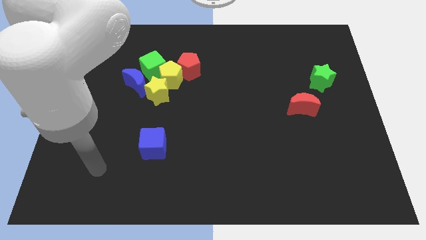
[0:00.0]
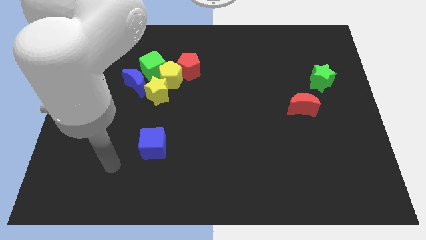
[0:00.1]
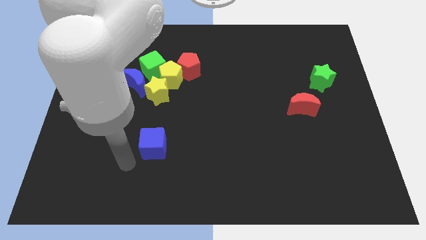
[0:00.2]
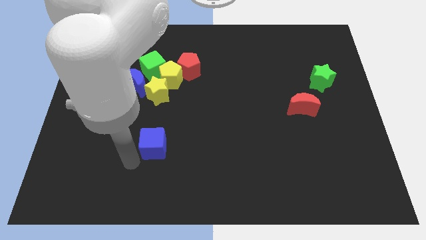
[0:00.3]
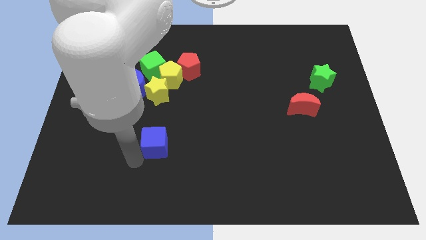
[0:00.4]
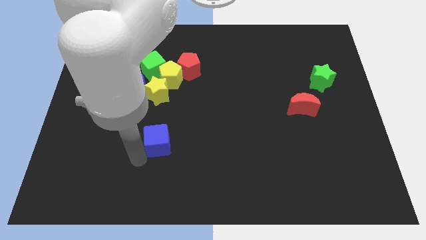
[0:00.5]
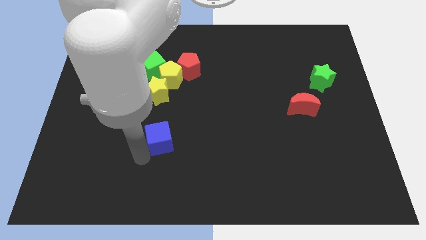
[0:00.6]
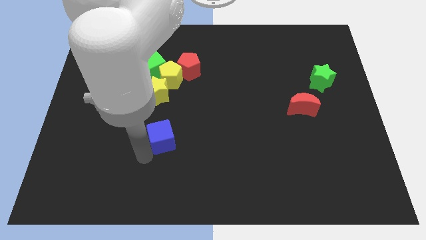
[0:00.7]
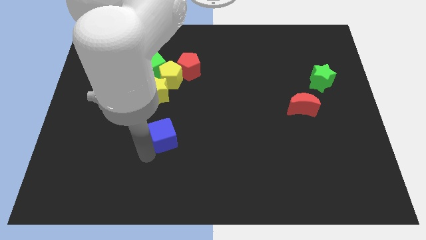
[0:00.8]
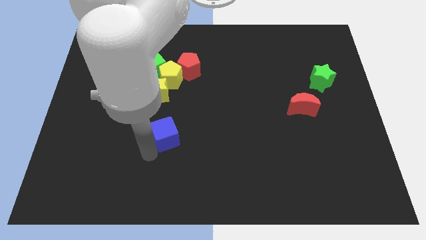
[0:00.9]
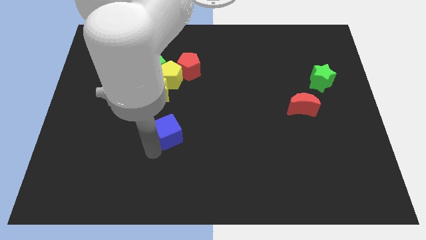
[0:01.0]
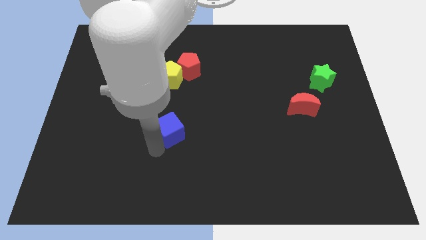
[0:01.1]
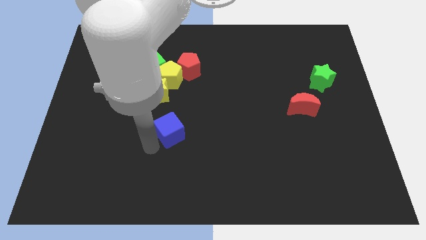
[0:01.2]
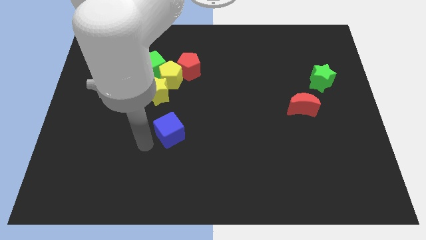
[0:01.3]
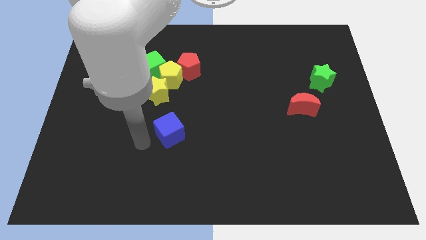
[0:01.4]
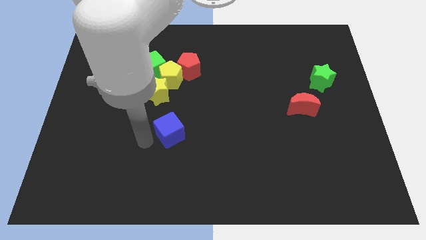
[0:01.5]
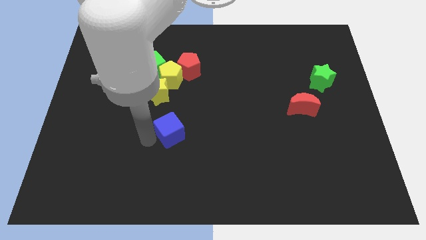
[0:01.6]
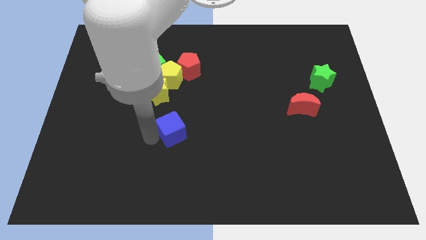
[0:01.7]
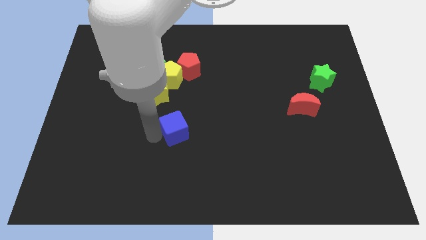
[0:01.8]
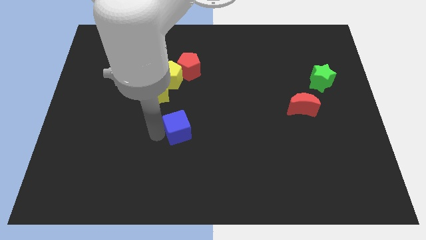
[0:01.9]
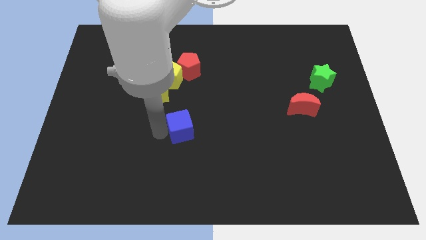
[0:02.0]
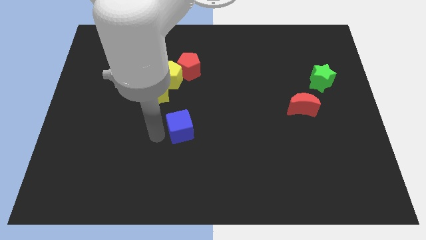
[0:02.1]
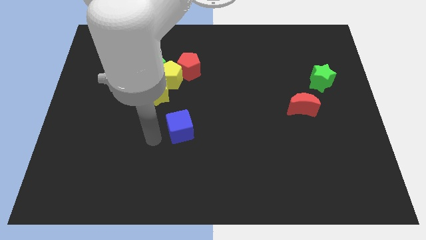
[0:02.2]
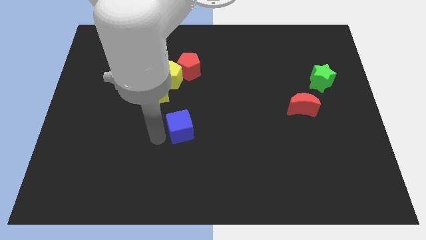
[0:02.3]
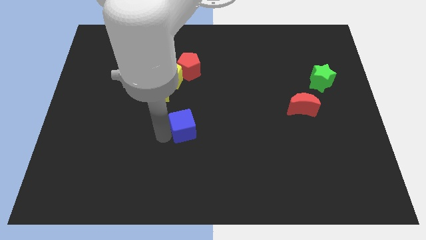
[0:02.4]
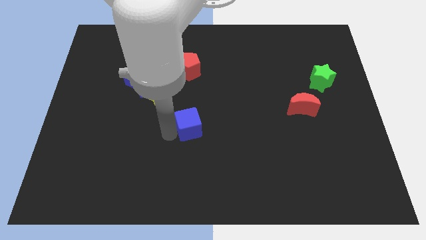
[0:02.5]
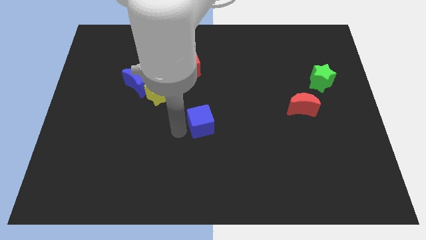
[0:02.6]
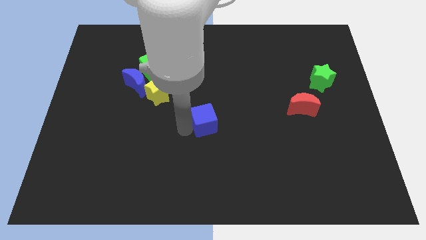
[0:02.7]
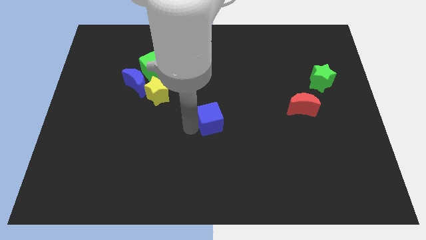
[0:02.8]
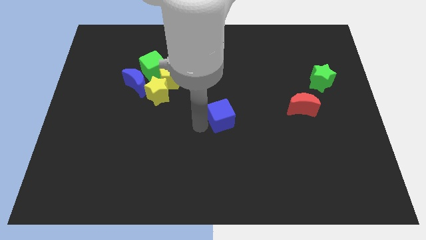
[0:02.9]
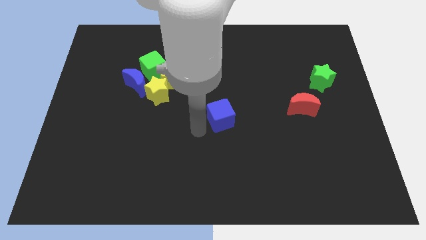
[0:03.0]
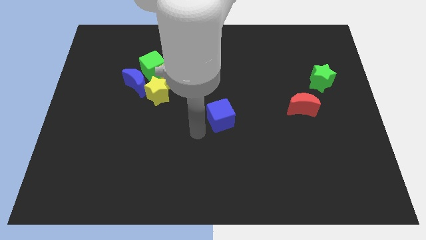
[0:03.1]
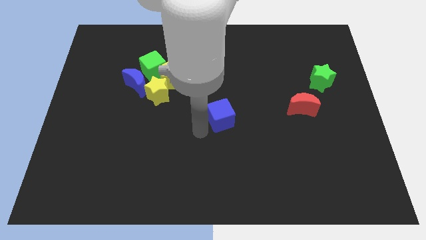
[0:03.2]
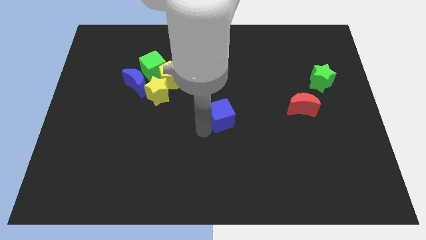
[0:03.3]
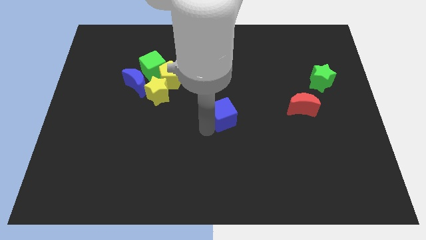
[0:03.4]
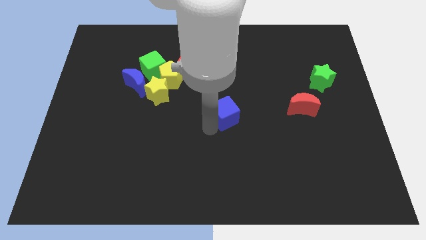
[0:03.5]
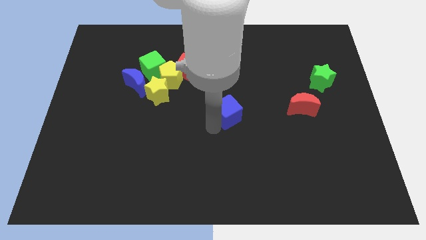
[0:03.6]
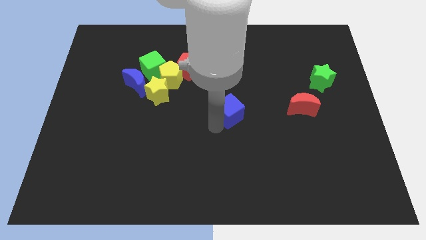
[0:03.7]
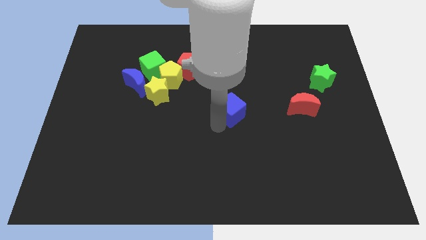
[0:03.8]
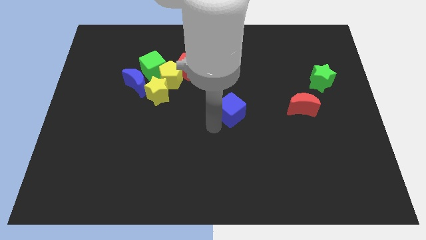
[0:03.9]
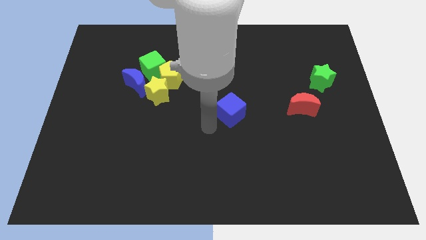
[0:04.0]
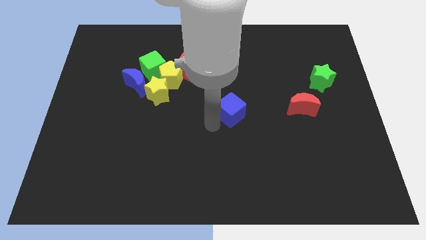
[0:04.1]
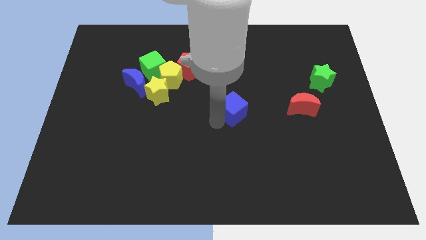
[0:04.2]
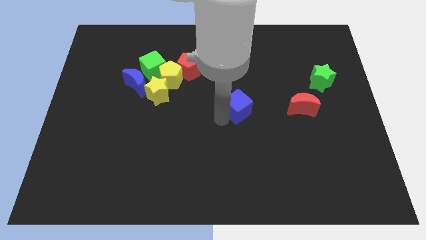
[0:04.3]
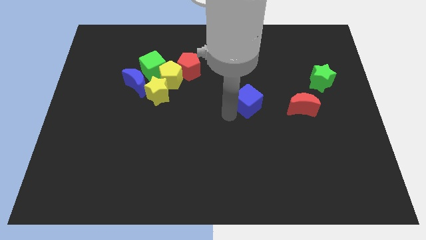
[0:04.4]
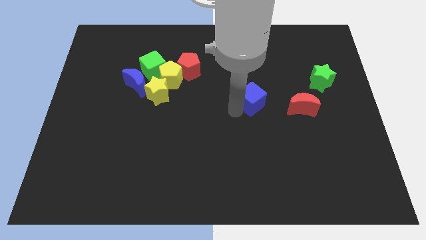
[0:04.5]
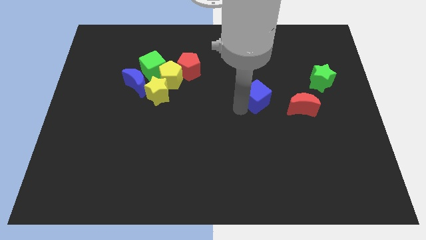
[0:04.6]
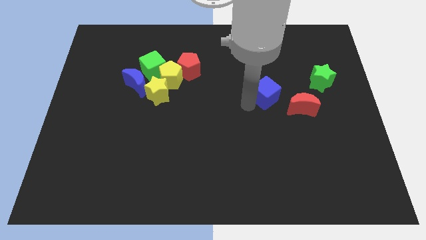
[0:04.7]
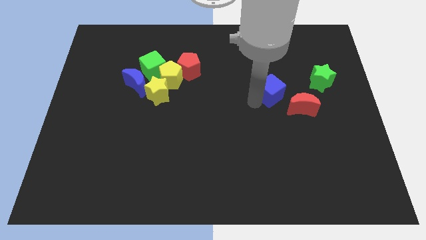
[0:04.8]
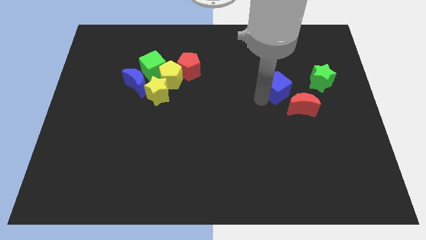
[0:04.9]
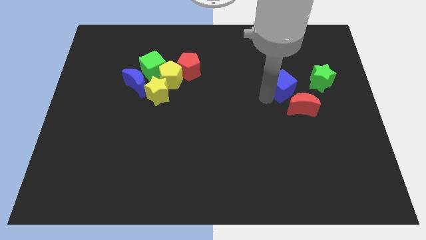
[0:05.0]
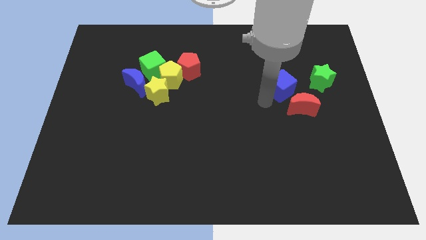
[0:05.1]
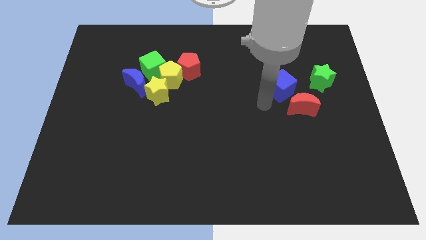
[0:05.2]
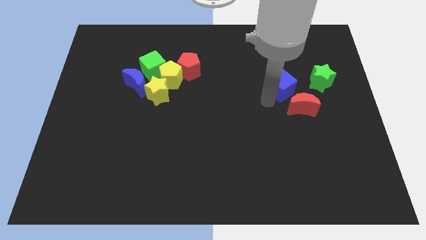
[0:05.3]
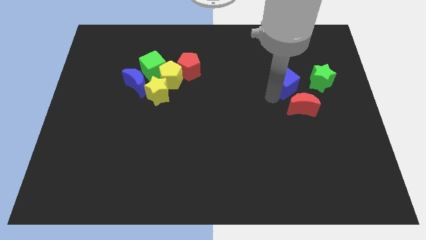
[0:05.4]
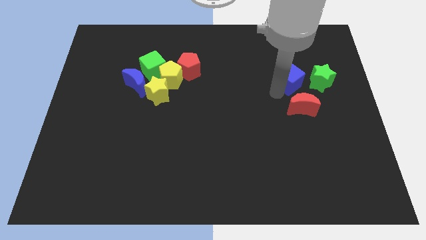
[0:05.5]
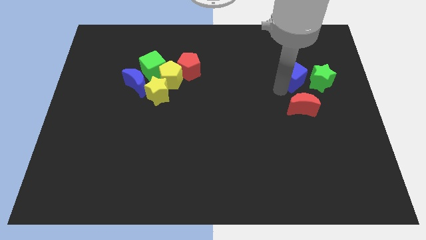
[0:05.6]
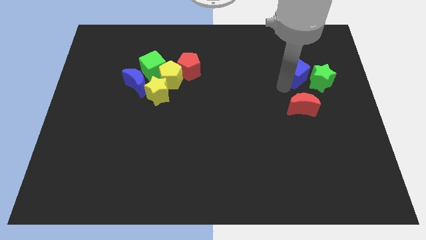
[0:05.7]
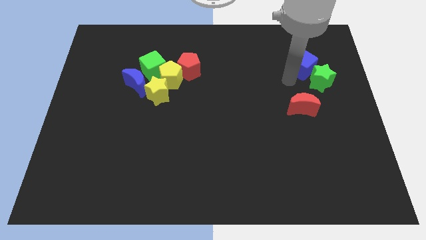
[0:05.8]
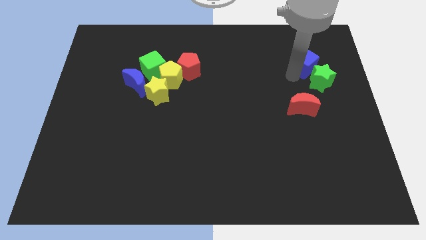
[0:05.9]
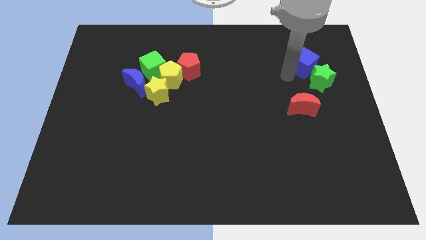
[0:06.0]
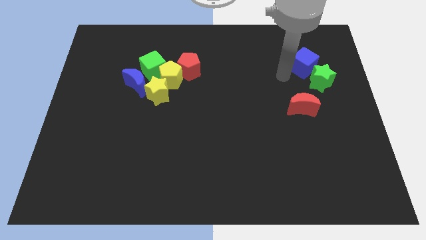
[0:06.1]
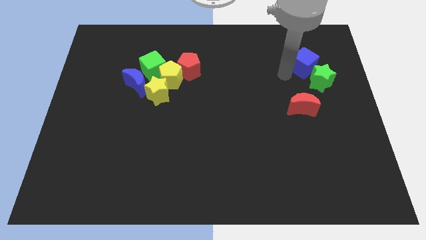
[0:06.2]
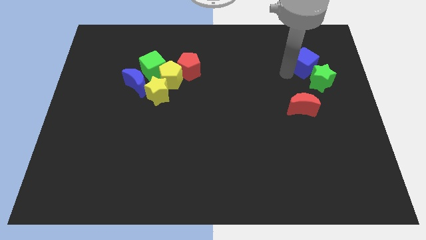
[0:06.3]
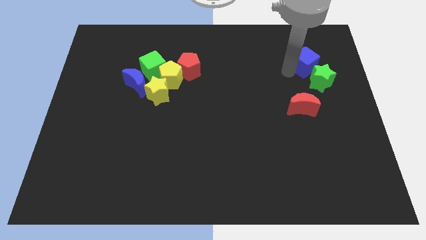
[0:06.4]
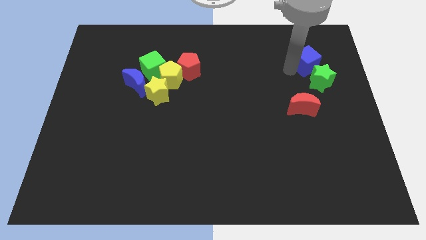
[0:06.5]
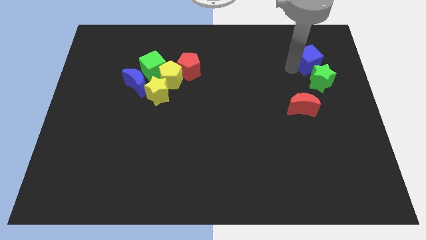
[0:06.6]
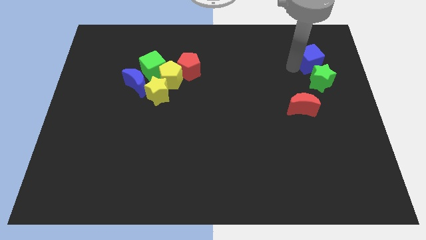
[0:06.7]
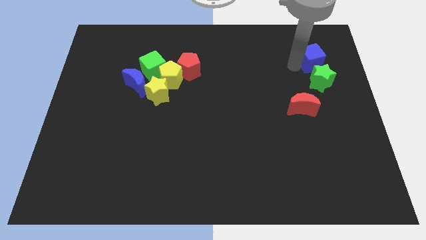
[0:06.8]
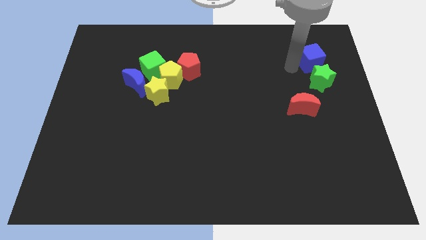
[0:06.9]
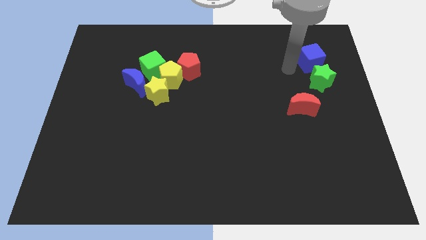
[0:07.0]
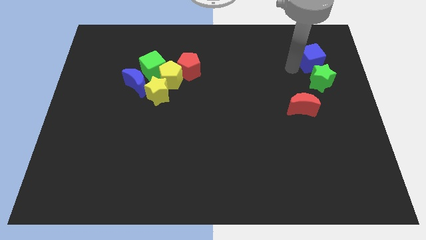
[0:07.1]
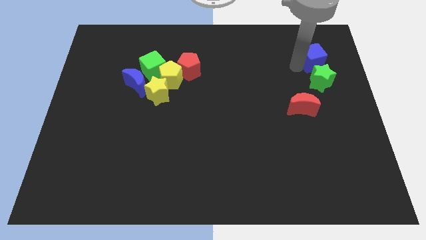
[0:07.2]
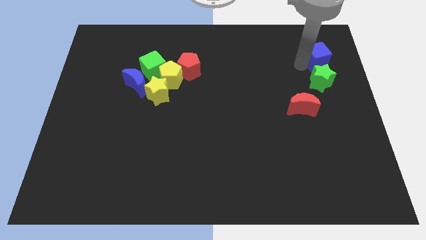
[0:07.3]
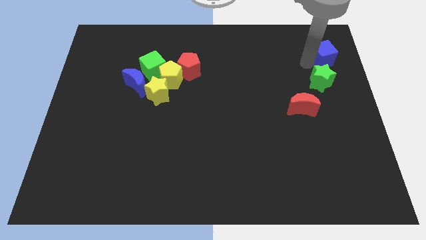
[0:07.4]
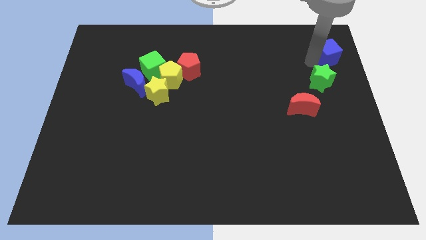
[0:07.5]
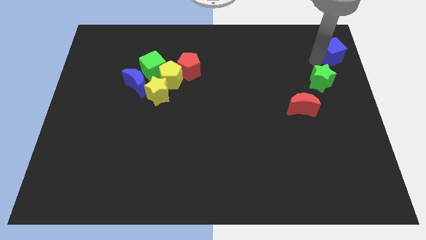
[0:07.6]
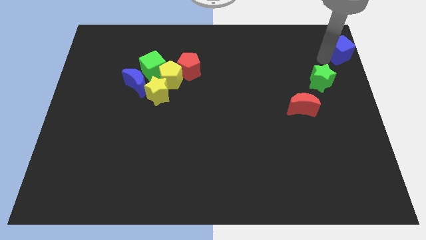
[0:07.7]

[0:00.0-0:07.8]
put the blue cube to the upper right corner
